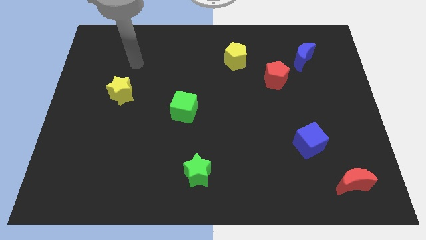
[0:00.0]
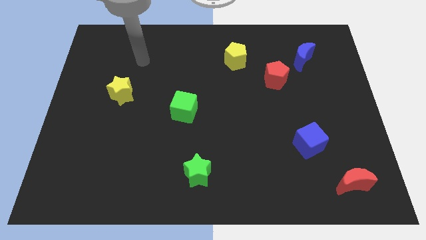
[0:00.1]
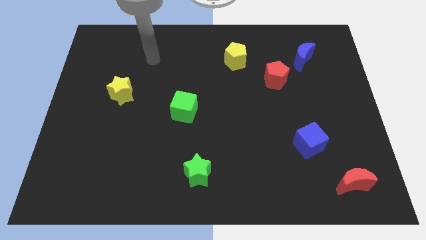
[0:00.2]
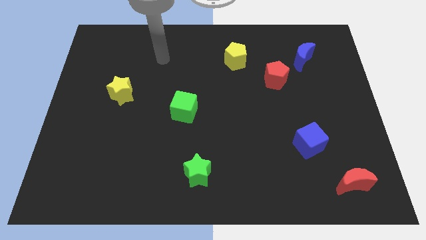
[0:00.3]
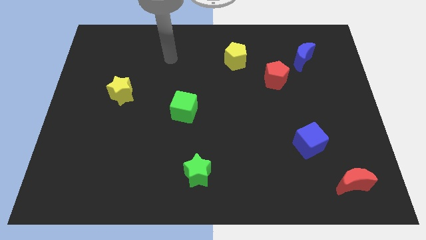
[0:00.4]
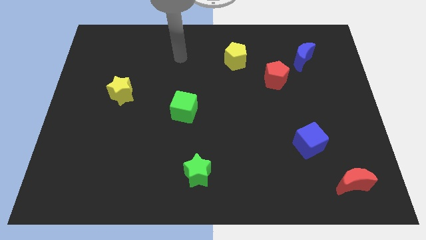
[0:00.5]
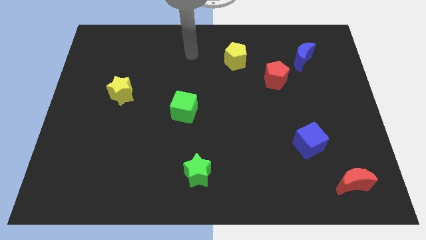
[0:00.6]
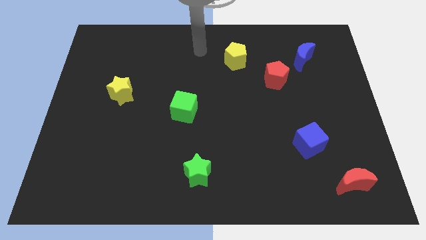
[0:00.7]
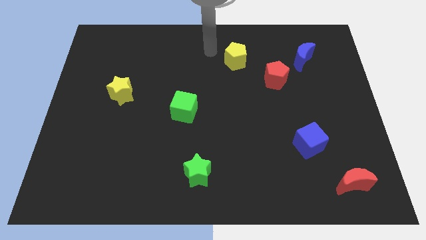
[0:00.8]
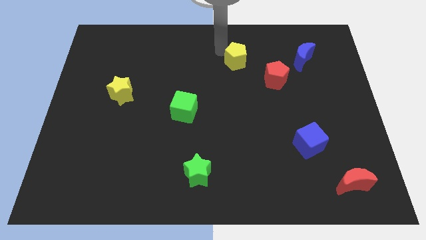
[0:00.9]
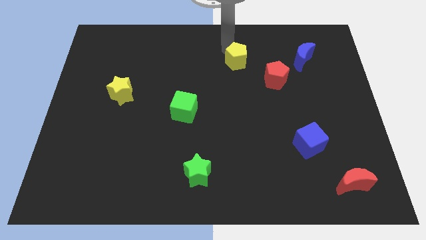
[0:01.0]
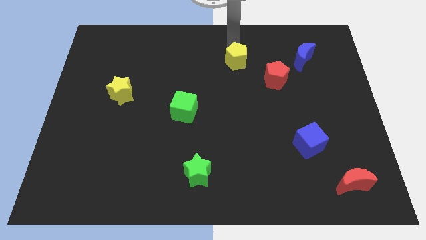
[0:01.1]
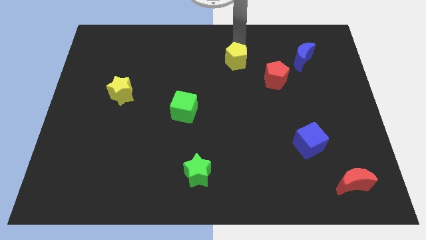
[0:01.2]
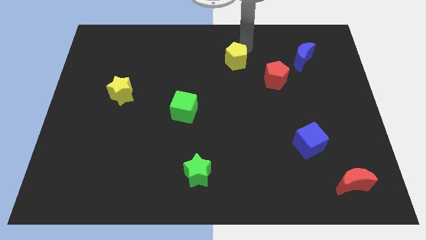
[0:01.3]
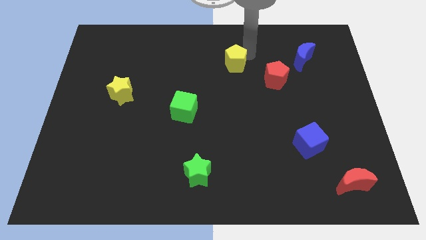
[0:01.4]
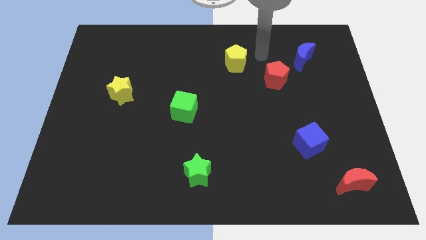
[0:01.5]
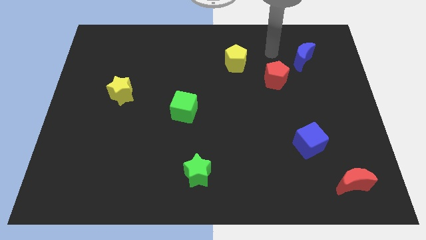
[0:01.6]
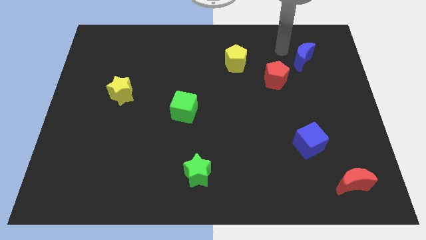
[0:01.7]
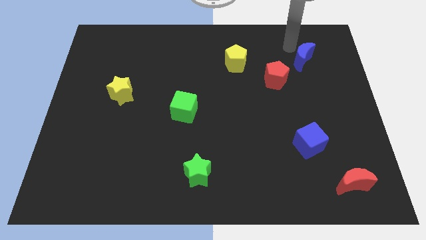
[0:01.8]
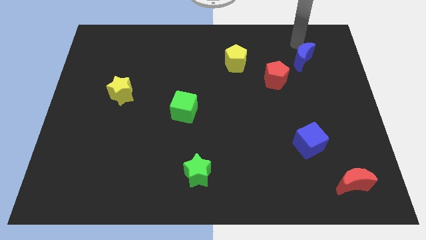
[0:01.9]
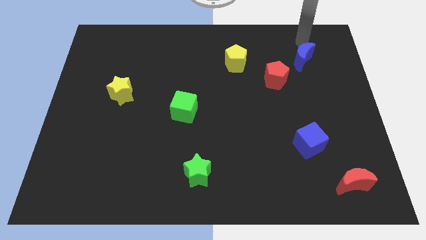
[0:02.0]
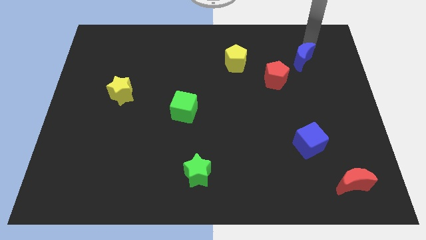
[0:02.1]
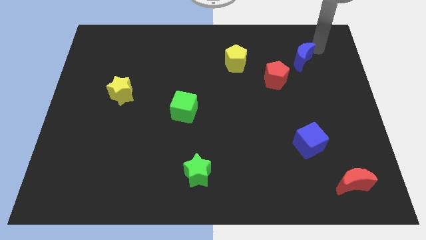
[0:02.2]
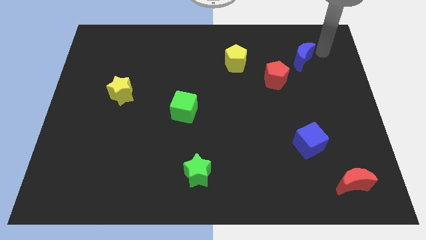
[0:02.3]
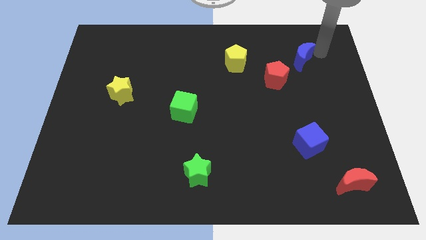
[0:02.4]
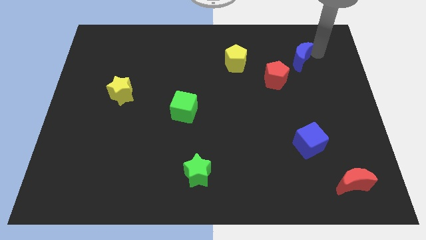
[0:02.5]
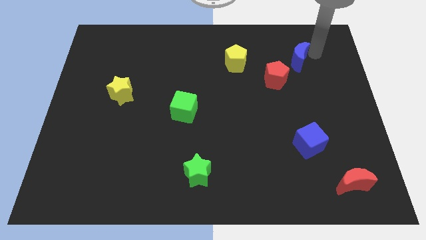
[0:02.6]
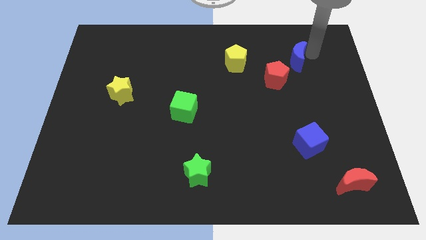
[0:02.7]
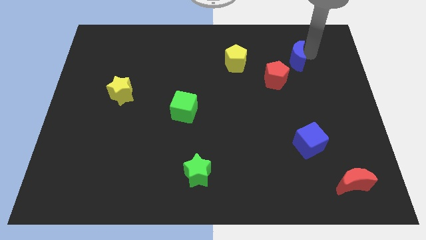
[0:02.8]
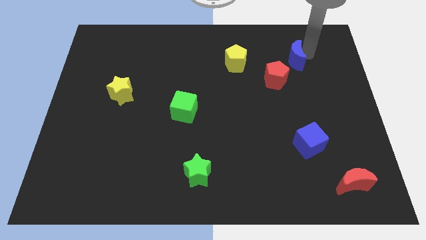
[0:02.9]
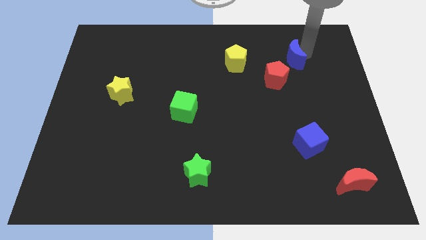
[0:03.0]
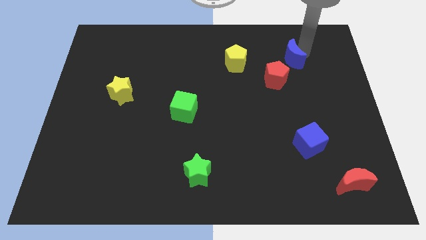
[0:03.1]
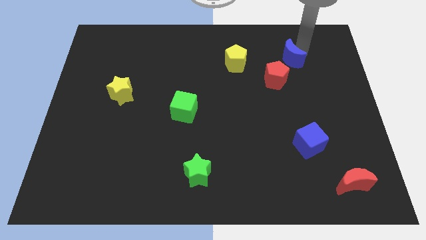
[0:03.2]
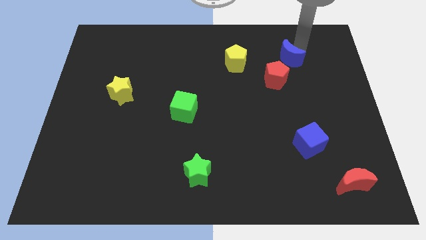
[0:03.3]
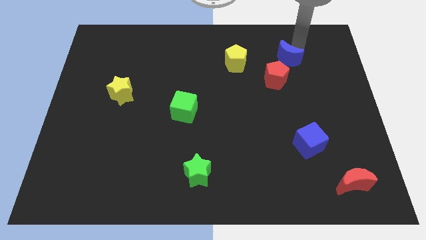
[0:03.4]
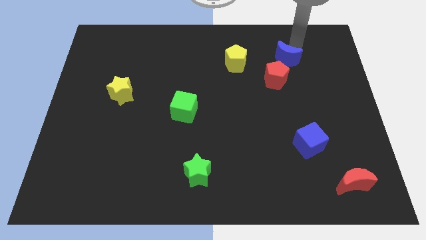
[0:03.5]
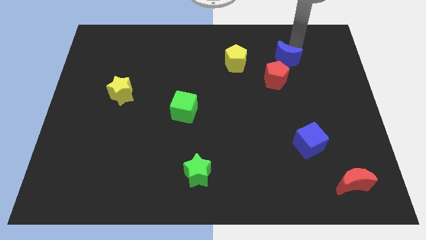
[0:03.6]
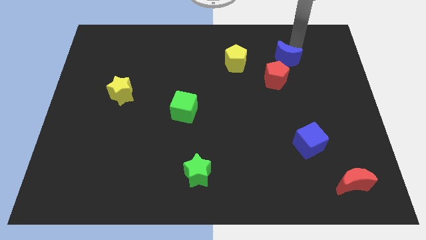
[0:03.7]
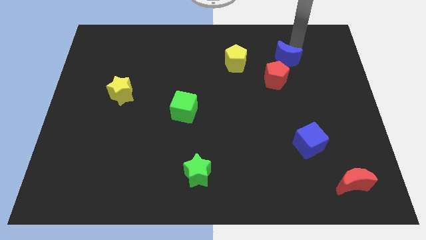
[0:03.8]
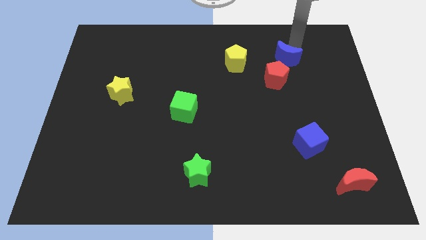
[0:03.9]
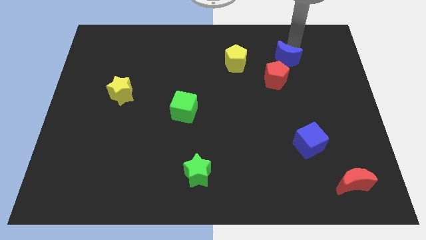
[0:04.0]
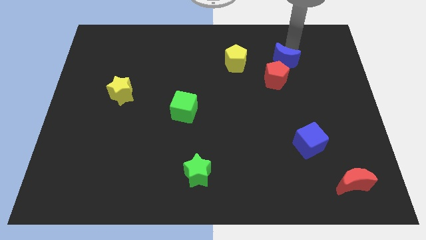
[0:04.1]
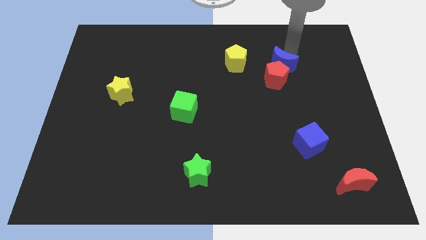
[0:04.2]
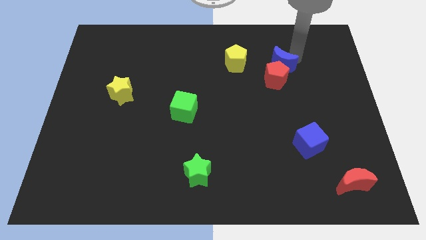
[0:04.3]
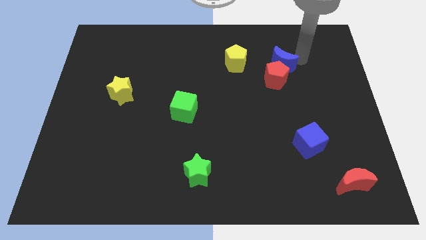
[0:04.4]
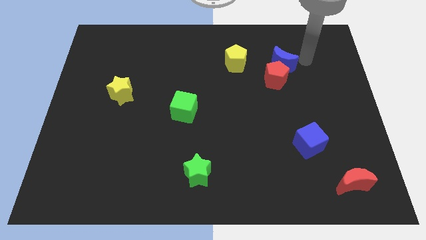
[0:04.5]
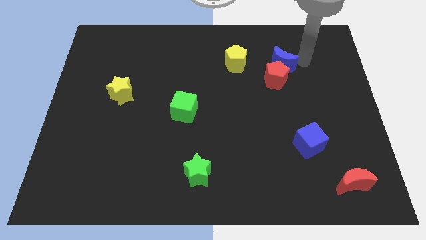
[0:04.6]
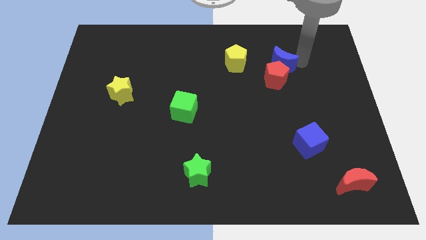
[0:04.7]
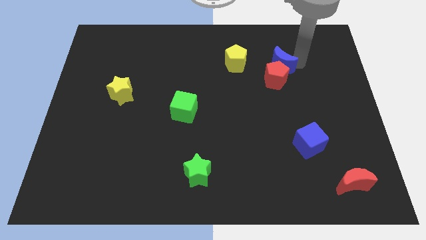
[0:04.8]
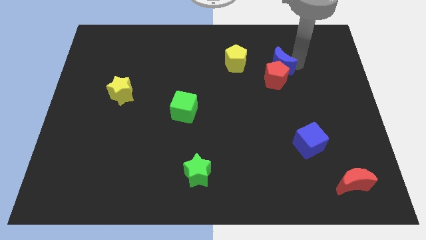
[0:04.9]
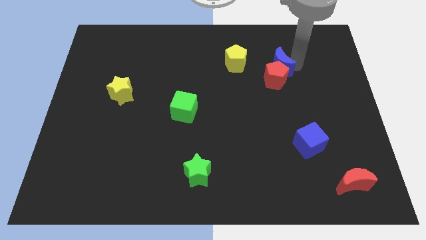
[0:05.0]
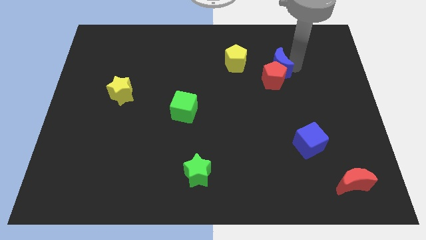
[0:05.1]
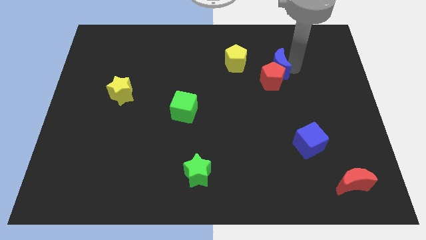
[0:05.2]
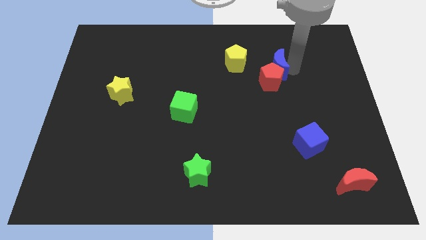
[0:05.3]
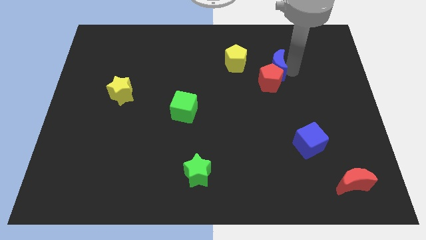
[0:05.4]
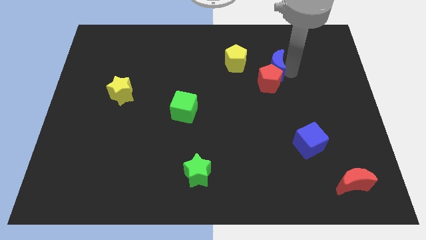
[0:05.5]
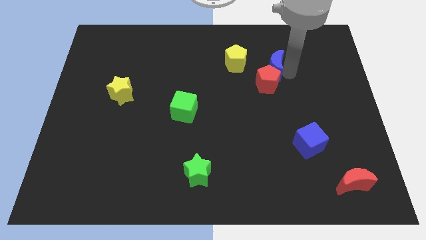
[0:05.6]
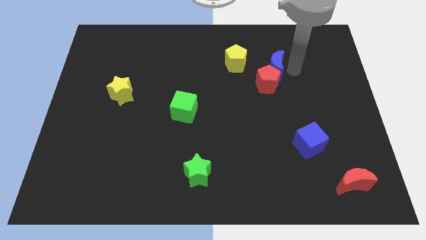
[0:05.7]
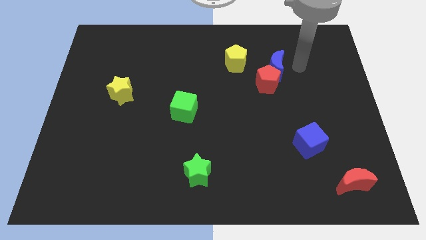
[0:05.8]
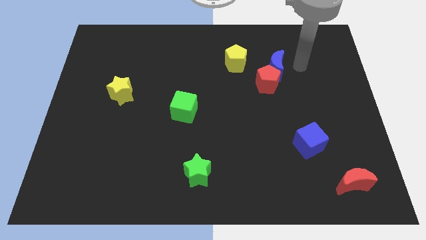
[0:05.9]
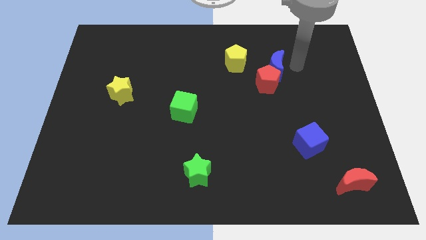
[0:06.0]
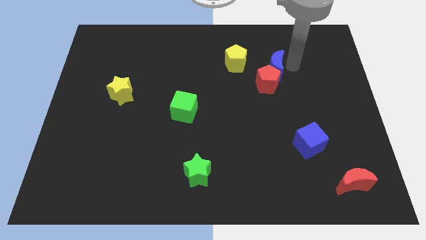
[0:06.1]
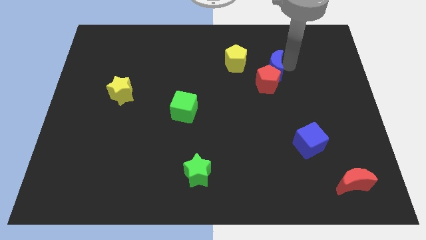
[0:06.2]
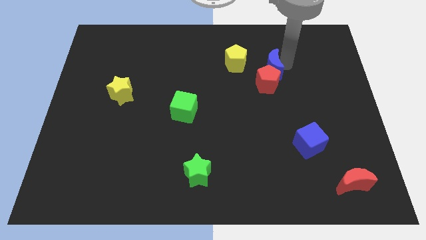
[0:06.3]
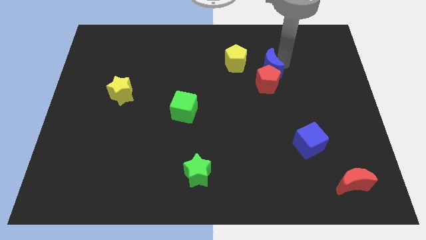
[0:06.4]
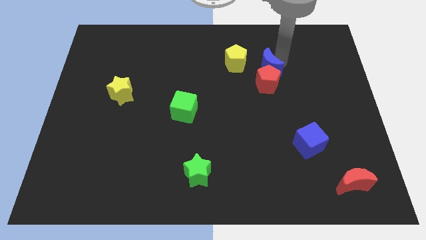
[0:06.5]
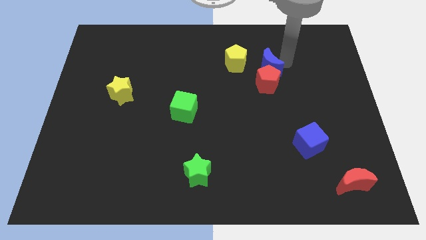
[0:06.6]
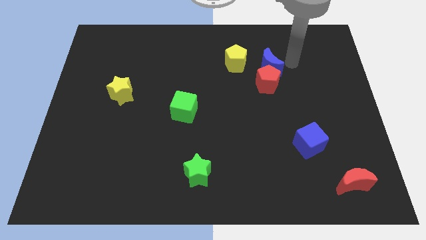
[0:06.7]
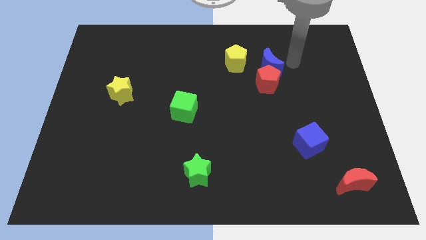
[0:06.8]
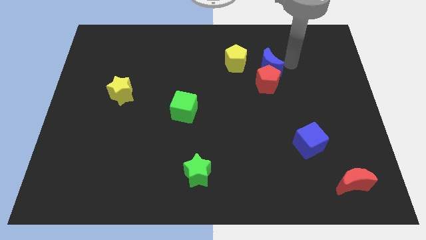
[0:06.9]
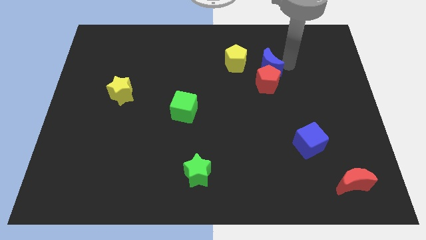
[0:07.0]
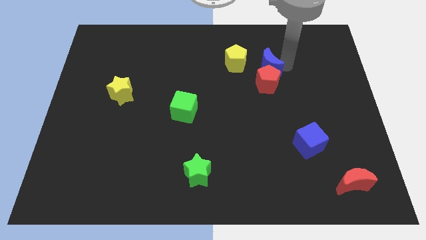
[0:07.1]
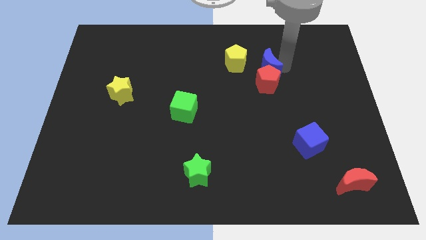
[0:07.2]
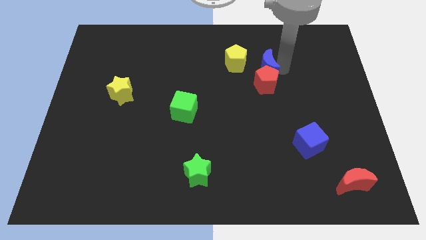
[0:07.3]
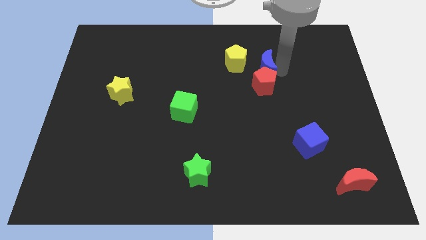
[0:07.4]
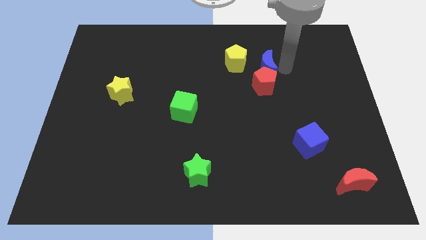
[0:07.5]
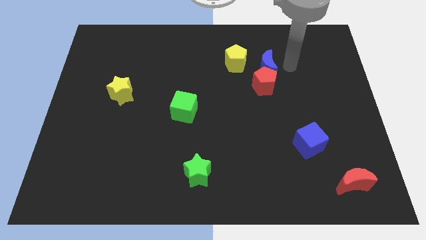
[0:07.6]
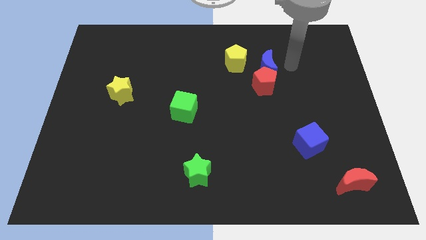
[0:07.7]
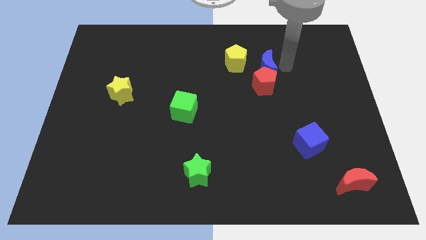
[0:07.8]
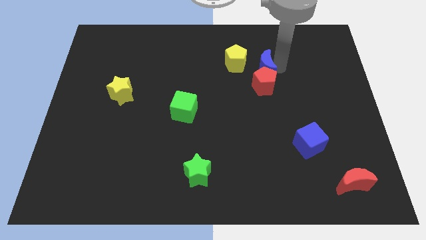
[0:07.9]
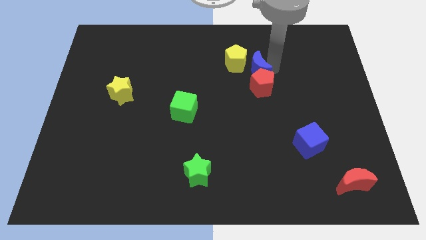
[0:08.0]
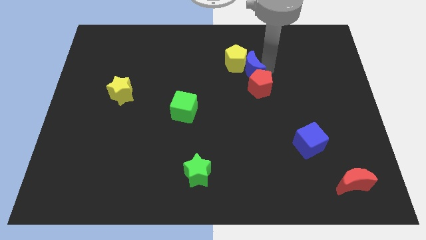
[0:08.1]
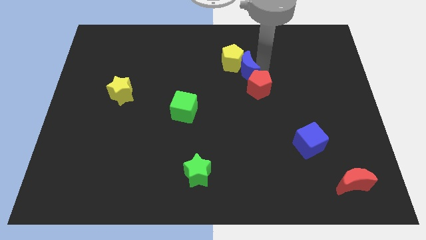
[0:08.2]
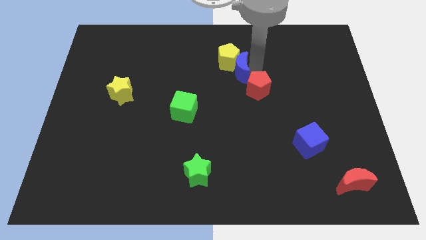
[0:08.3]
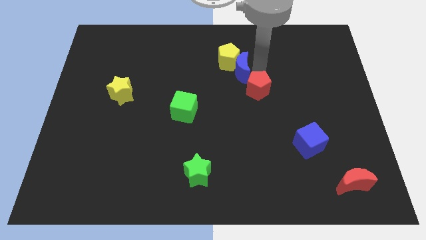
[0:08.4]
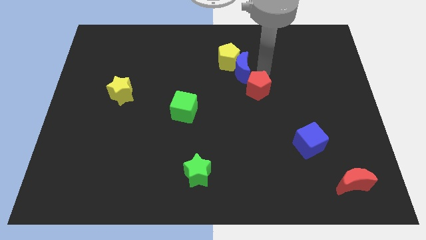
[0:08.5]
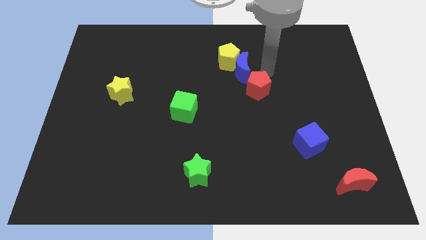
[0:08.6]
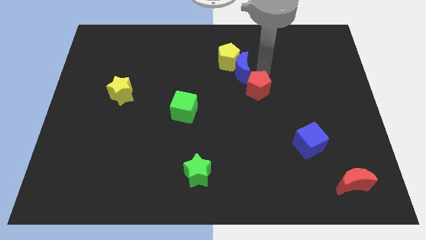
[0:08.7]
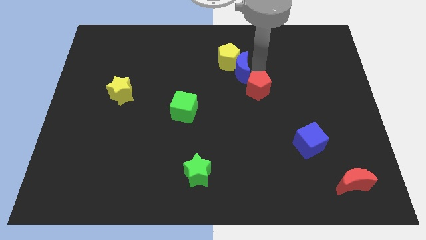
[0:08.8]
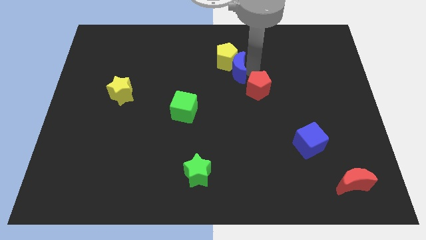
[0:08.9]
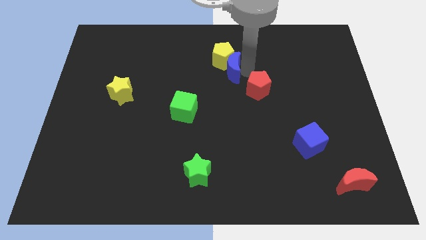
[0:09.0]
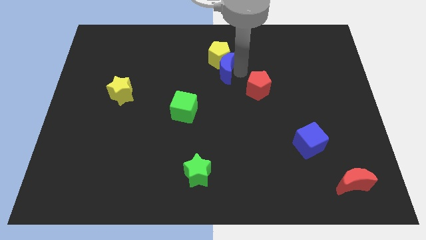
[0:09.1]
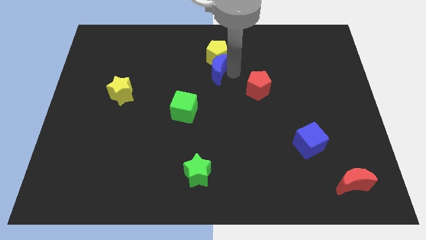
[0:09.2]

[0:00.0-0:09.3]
move the blue moon left
